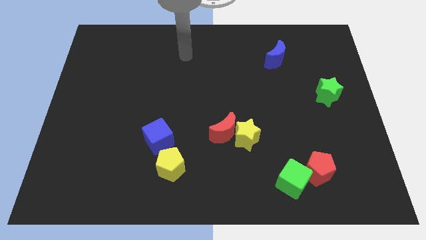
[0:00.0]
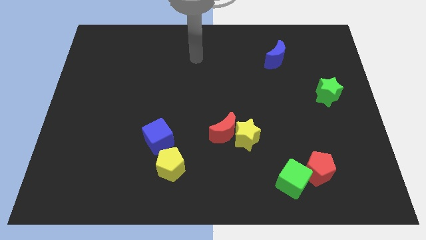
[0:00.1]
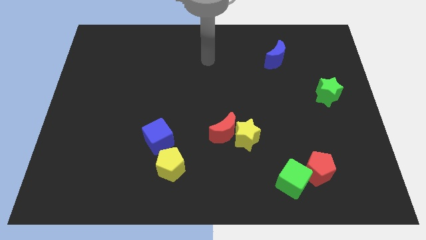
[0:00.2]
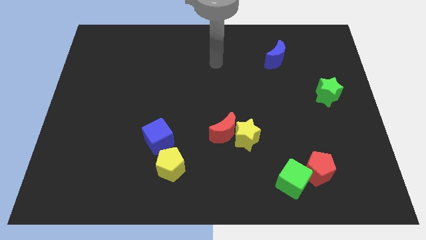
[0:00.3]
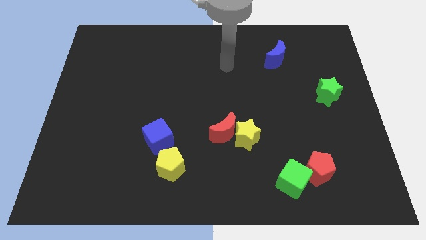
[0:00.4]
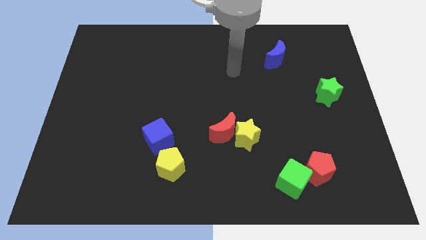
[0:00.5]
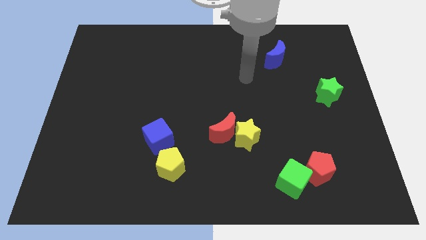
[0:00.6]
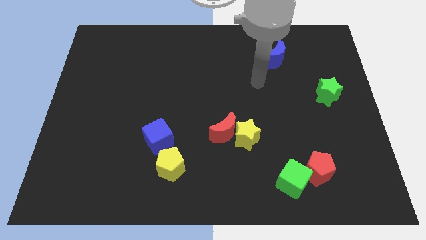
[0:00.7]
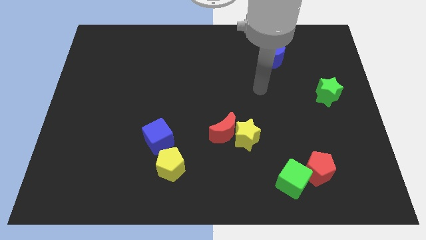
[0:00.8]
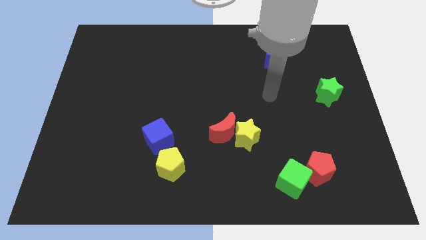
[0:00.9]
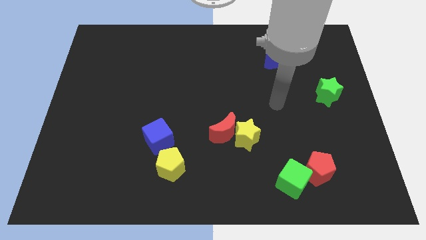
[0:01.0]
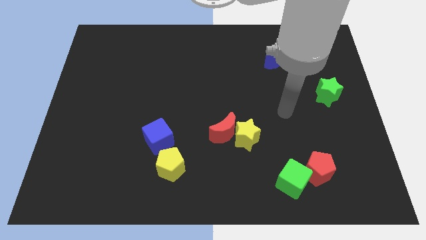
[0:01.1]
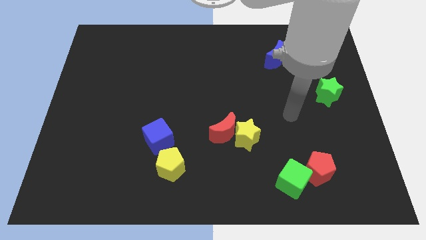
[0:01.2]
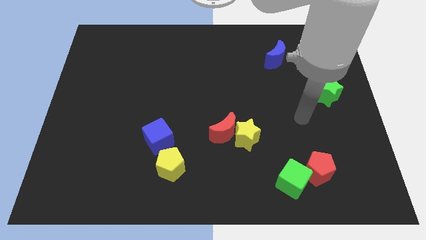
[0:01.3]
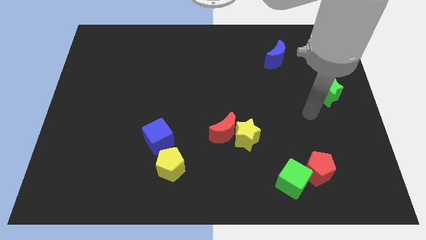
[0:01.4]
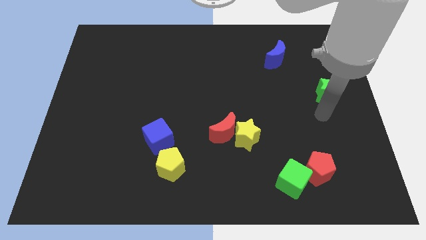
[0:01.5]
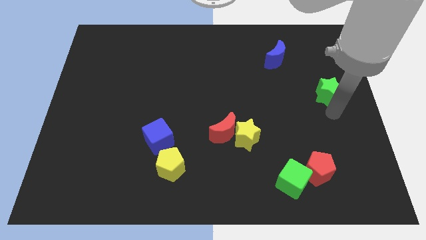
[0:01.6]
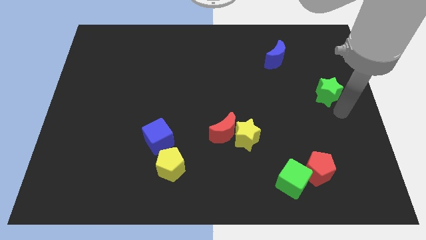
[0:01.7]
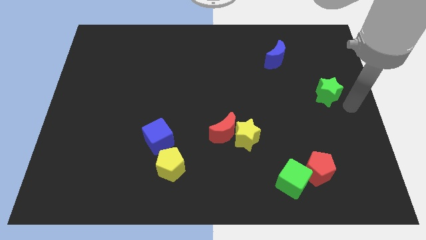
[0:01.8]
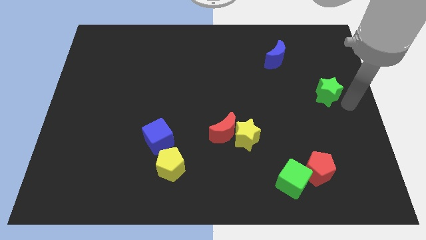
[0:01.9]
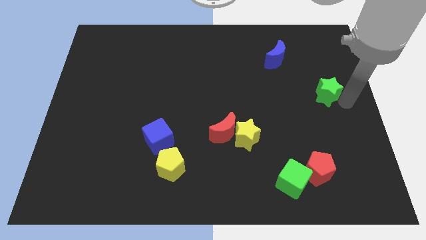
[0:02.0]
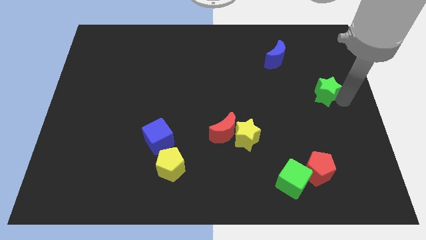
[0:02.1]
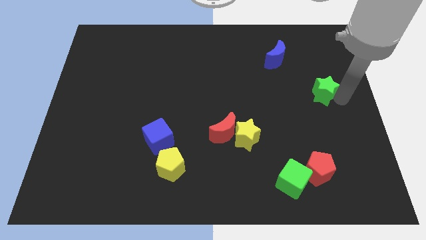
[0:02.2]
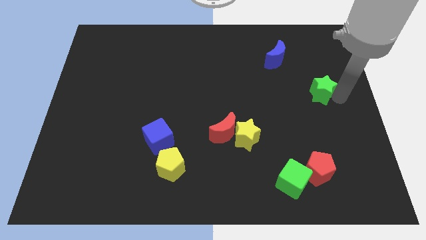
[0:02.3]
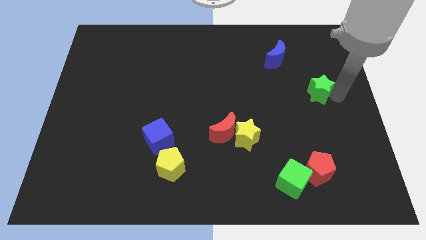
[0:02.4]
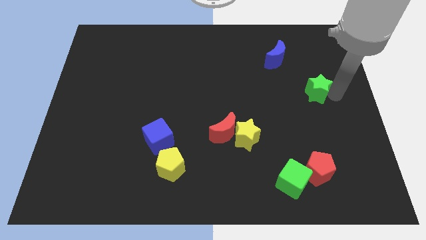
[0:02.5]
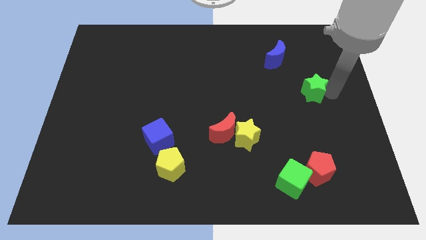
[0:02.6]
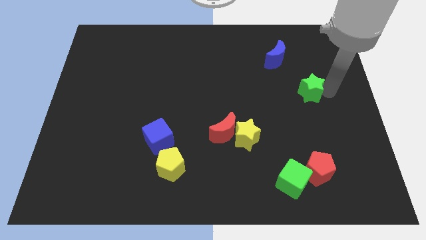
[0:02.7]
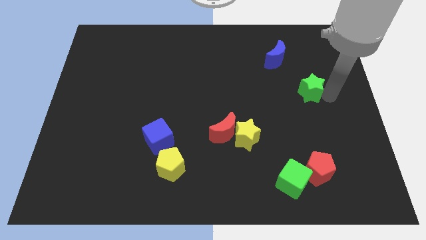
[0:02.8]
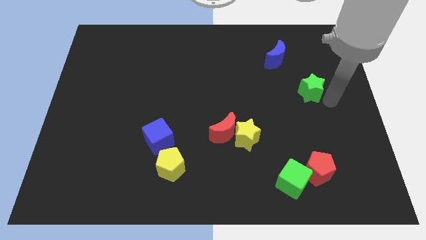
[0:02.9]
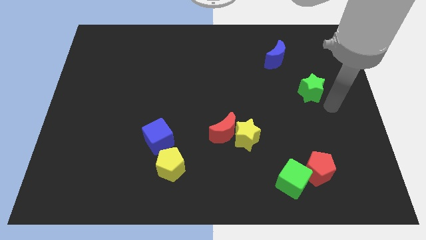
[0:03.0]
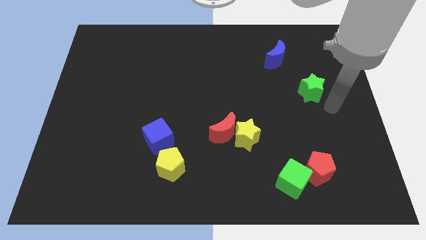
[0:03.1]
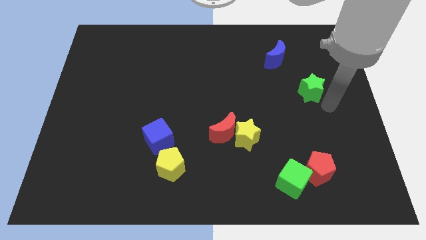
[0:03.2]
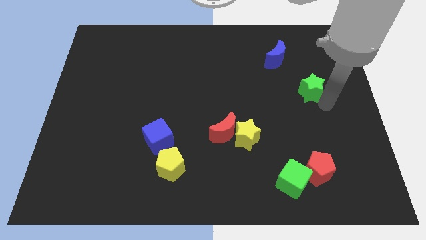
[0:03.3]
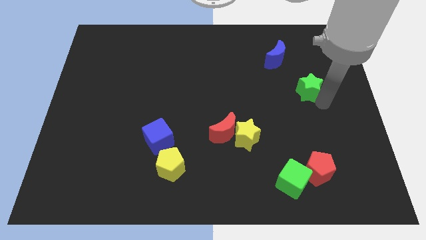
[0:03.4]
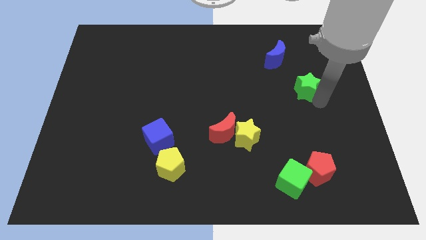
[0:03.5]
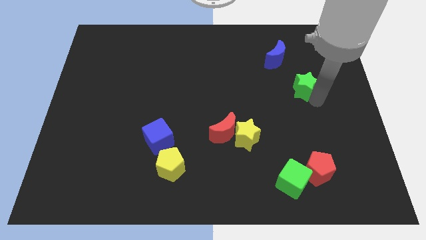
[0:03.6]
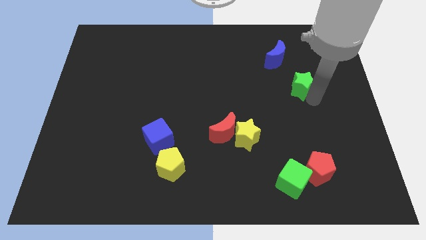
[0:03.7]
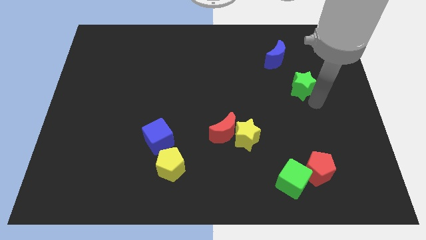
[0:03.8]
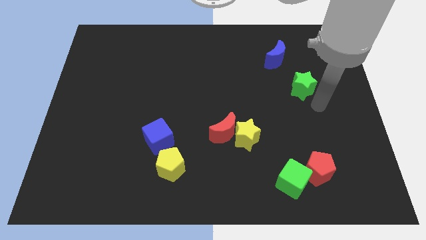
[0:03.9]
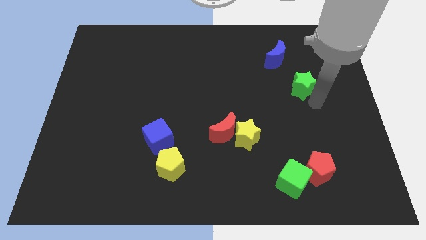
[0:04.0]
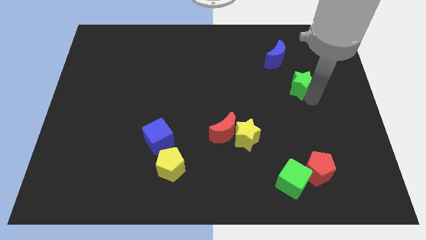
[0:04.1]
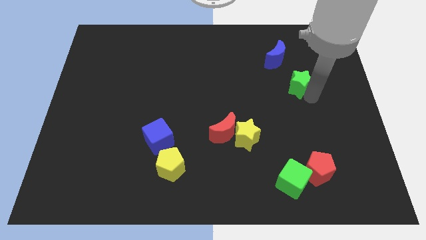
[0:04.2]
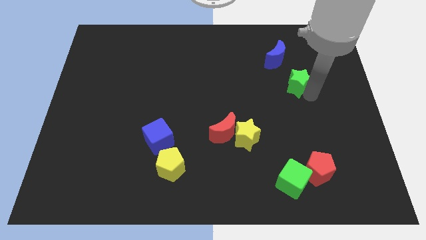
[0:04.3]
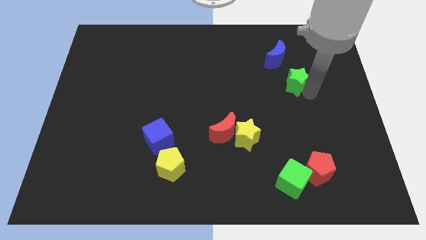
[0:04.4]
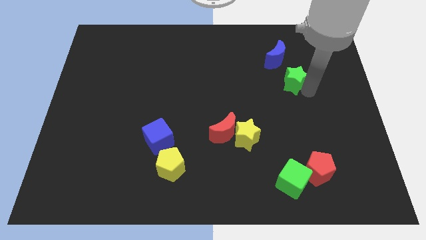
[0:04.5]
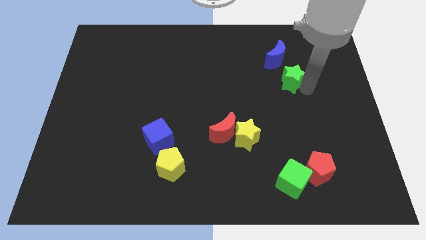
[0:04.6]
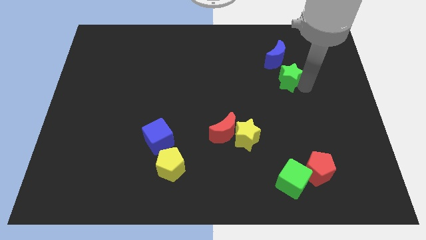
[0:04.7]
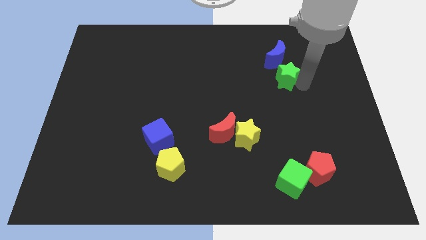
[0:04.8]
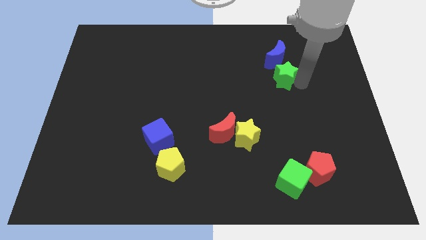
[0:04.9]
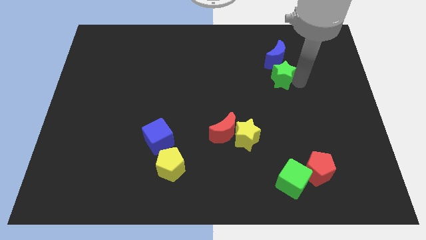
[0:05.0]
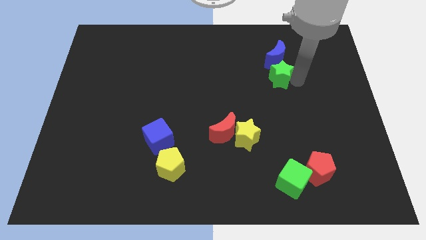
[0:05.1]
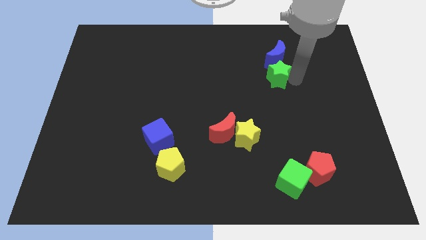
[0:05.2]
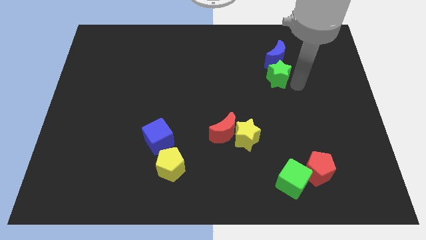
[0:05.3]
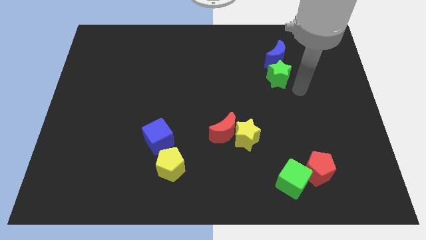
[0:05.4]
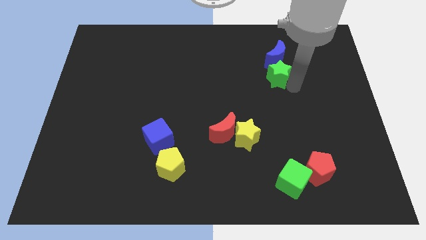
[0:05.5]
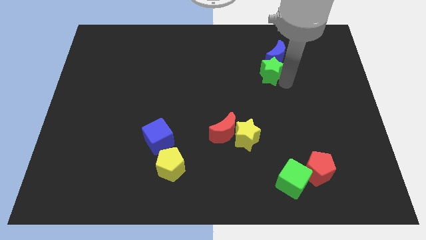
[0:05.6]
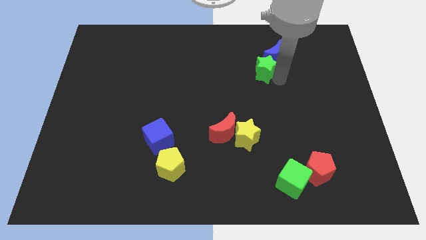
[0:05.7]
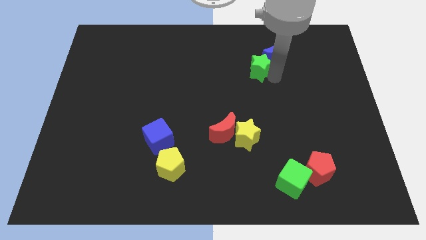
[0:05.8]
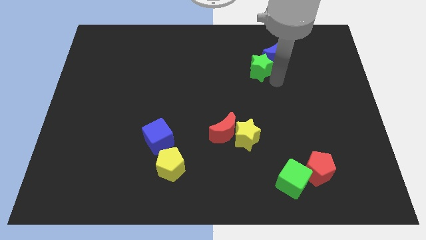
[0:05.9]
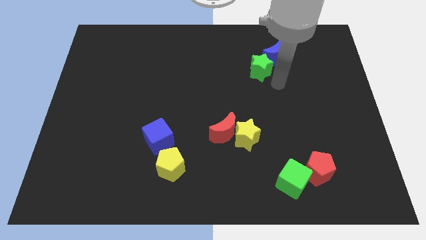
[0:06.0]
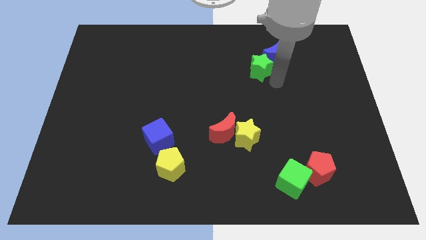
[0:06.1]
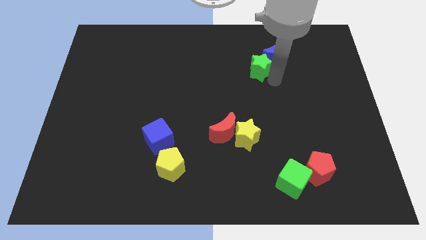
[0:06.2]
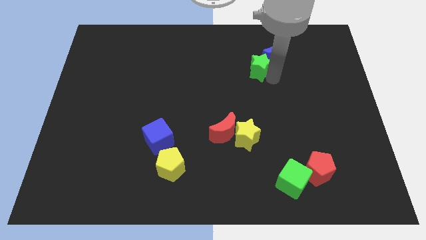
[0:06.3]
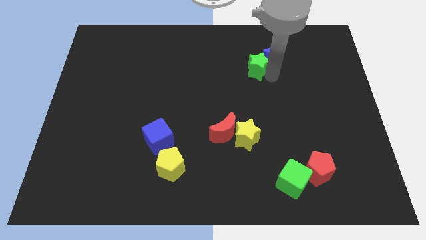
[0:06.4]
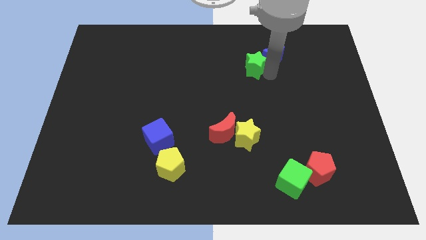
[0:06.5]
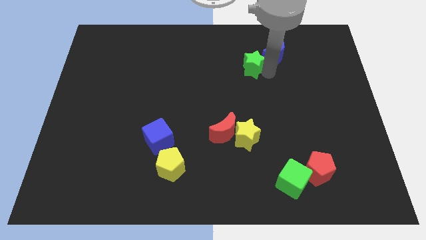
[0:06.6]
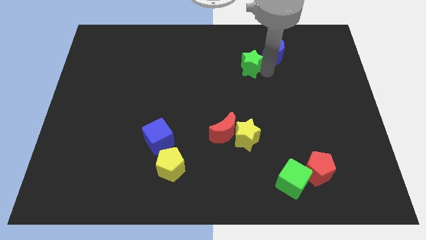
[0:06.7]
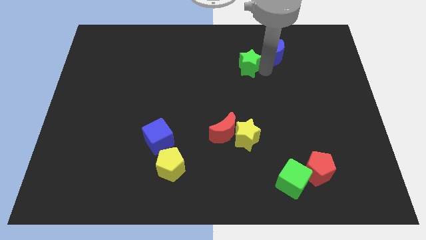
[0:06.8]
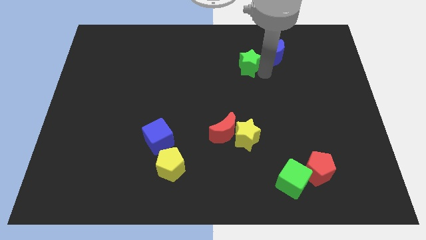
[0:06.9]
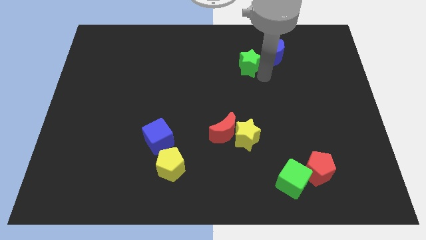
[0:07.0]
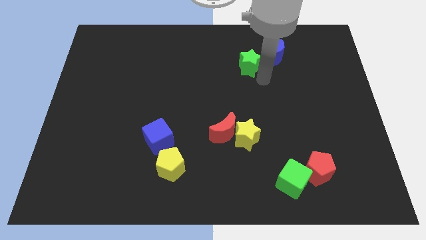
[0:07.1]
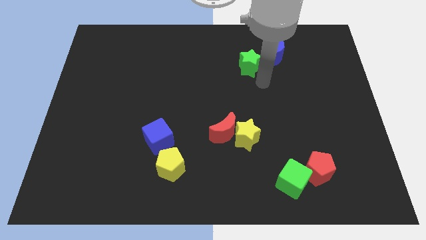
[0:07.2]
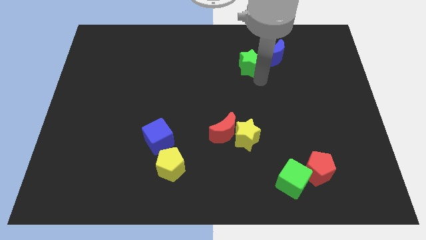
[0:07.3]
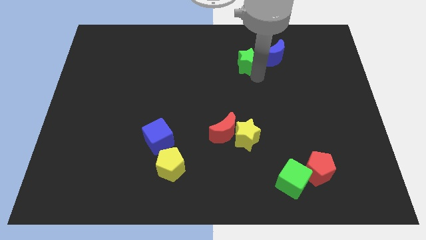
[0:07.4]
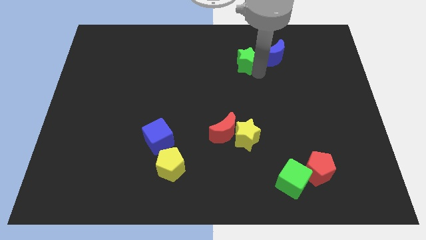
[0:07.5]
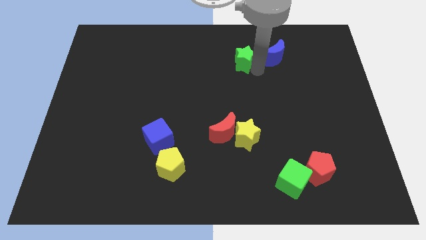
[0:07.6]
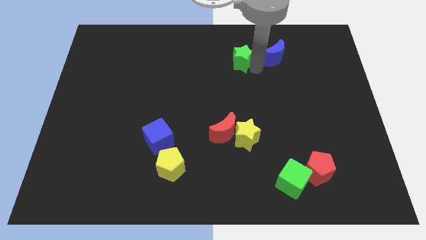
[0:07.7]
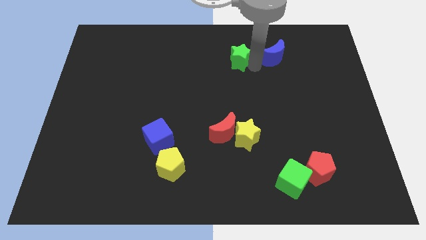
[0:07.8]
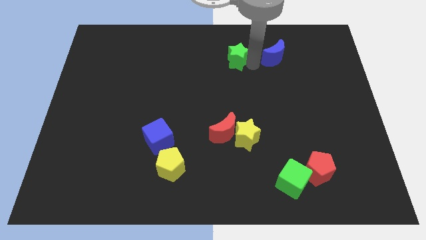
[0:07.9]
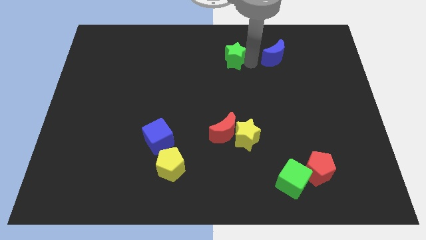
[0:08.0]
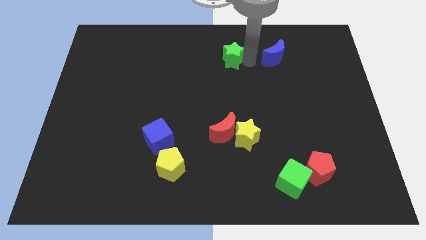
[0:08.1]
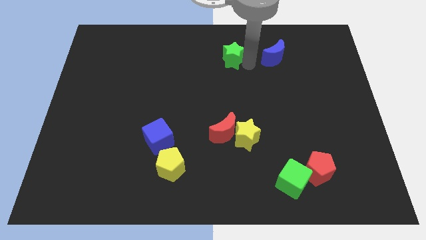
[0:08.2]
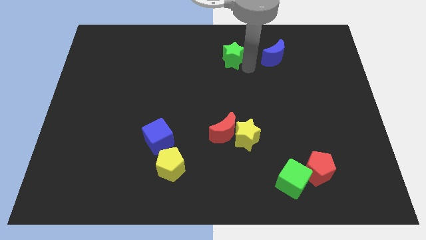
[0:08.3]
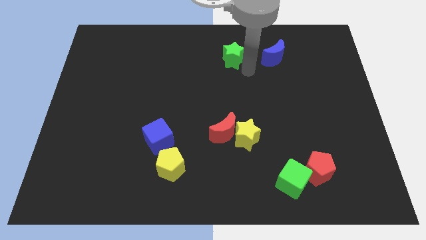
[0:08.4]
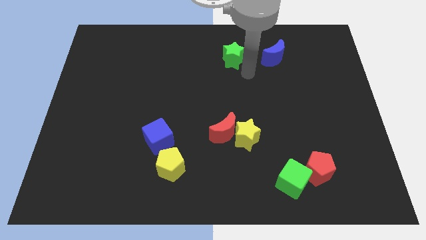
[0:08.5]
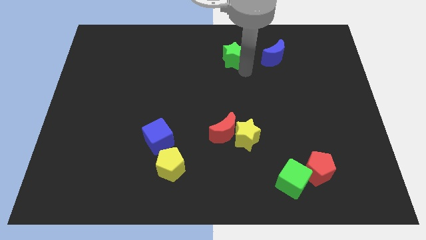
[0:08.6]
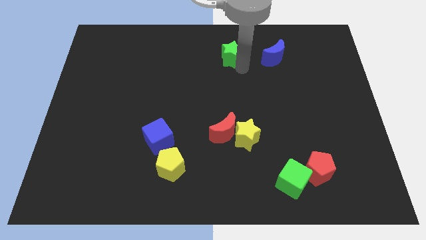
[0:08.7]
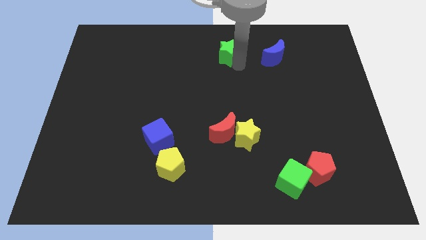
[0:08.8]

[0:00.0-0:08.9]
put the green star to the top side
